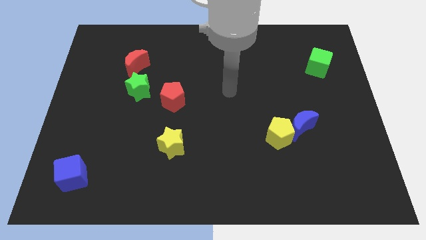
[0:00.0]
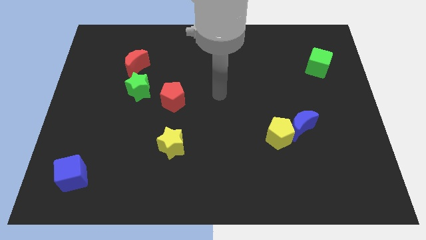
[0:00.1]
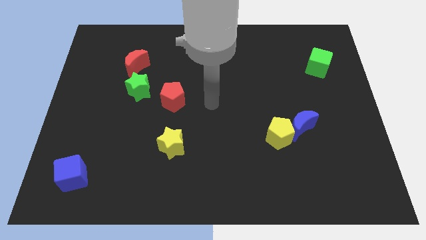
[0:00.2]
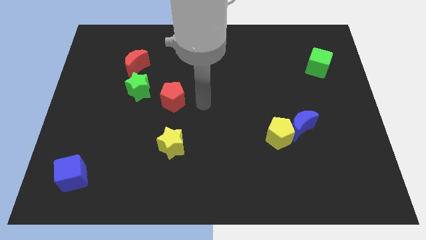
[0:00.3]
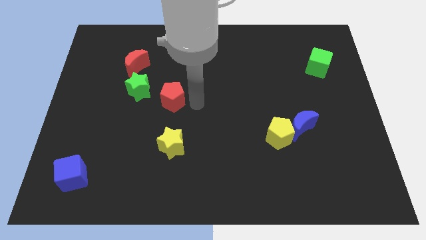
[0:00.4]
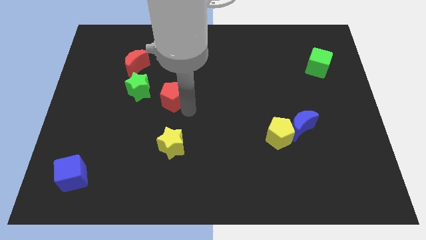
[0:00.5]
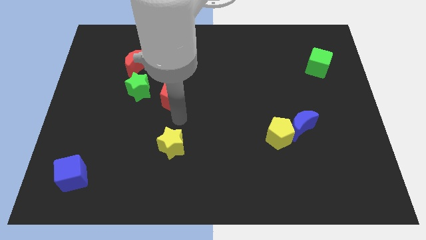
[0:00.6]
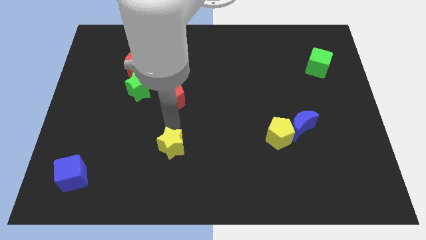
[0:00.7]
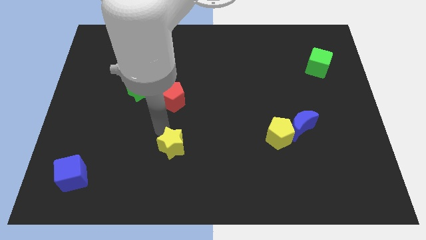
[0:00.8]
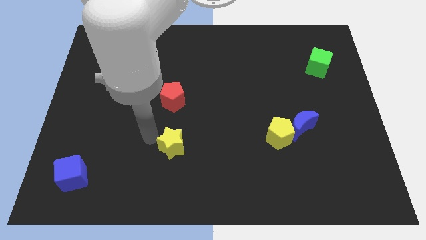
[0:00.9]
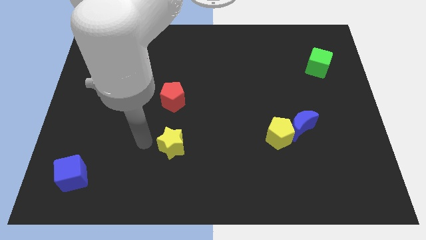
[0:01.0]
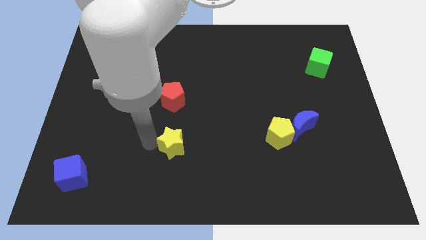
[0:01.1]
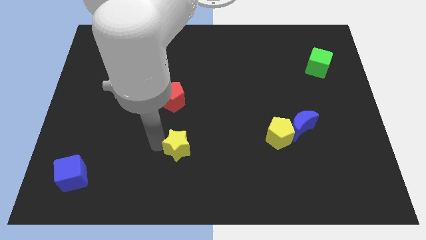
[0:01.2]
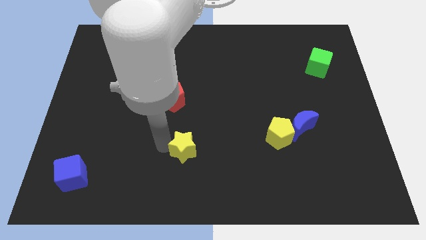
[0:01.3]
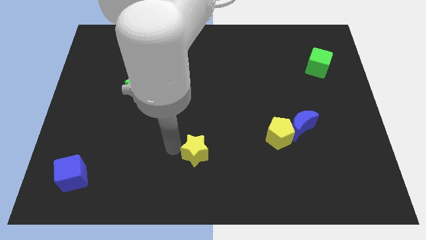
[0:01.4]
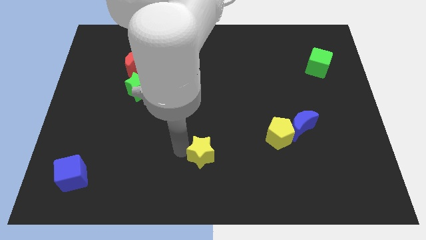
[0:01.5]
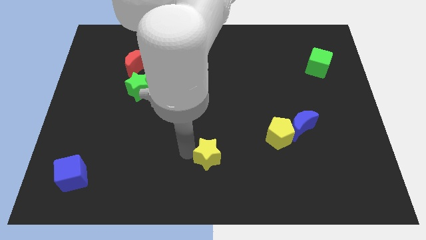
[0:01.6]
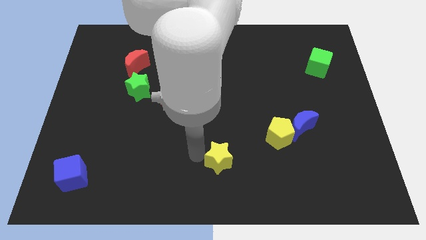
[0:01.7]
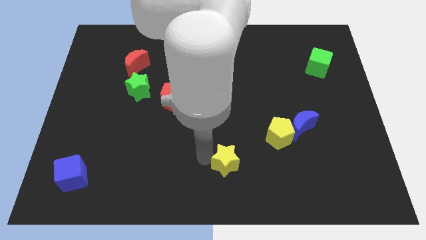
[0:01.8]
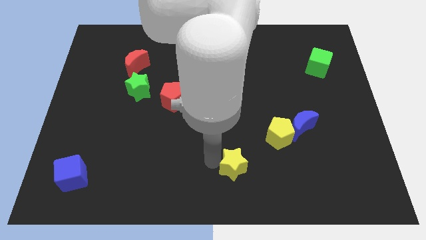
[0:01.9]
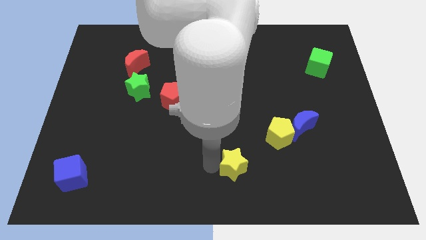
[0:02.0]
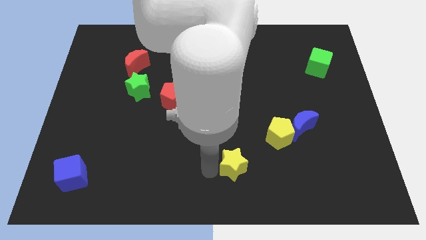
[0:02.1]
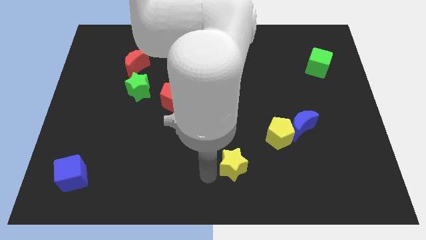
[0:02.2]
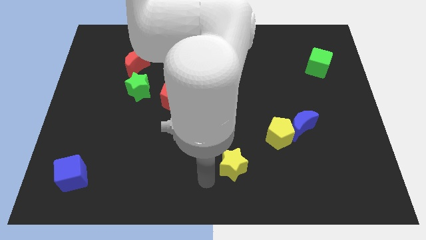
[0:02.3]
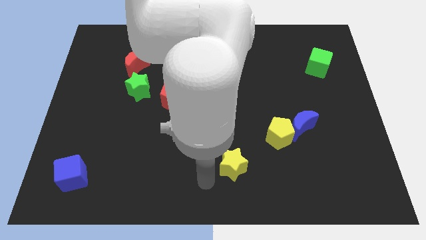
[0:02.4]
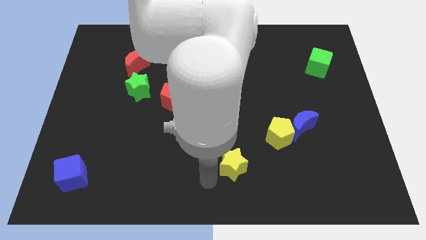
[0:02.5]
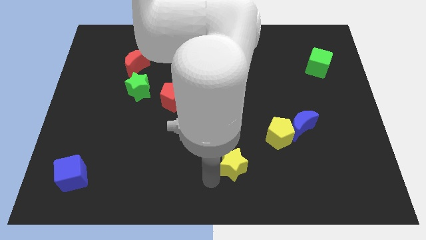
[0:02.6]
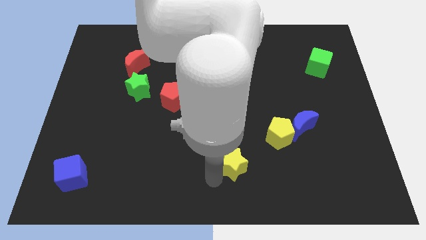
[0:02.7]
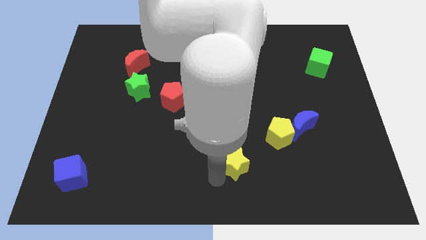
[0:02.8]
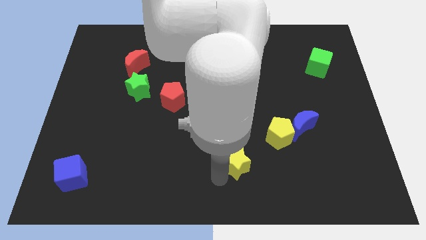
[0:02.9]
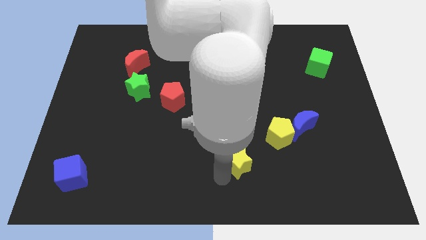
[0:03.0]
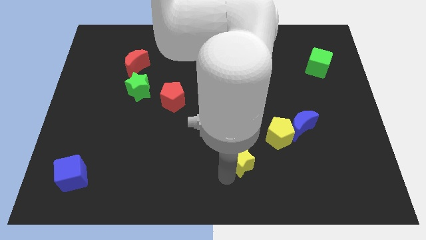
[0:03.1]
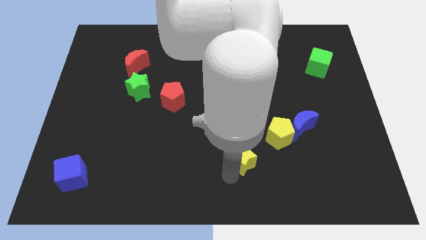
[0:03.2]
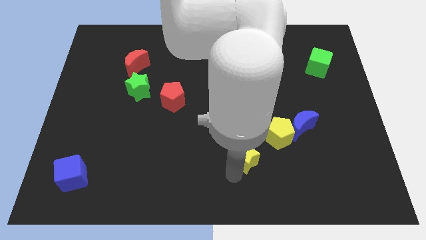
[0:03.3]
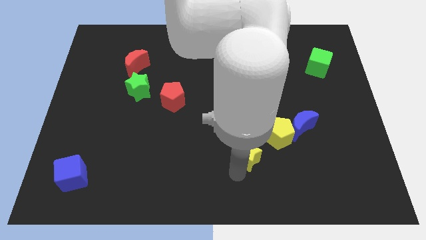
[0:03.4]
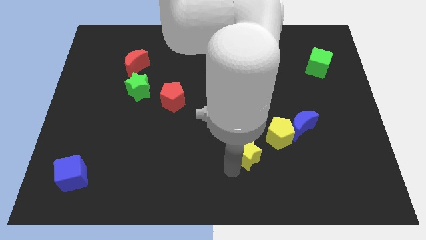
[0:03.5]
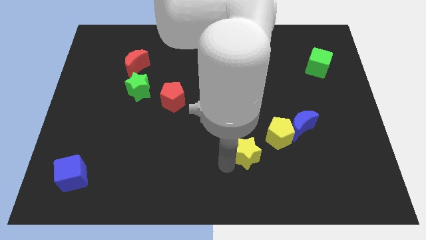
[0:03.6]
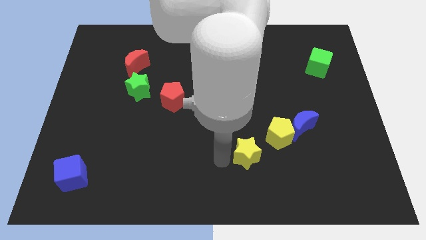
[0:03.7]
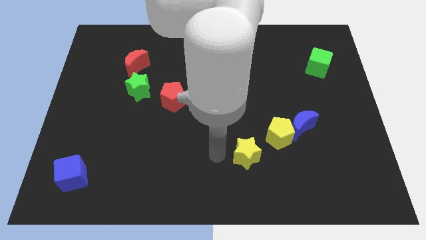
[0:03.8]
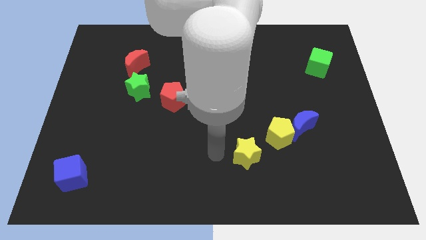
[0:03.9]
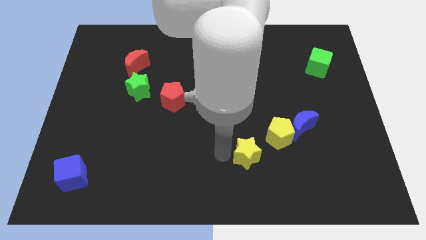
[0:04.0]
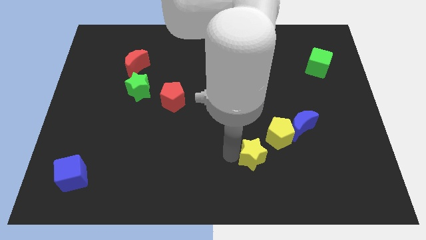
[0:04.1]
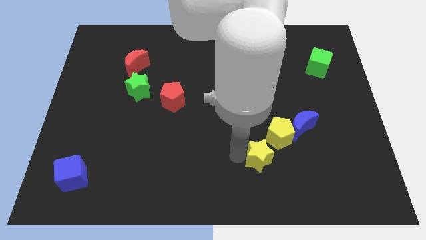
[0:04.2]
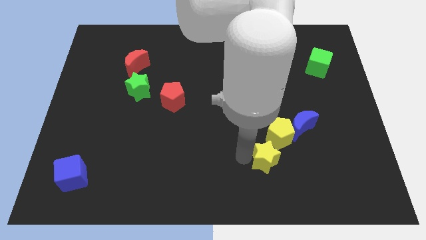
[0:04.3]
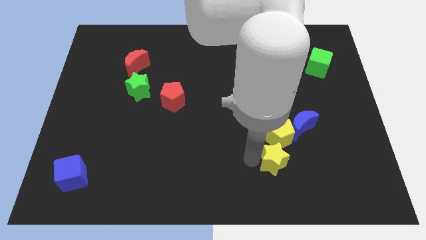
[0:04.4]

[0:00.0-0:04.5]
push the yellow star right

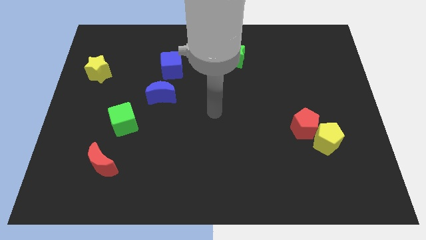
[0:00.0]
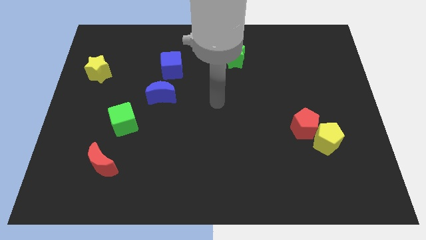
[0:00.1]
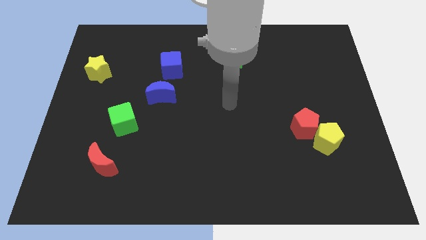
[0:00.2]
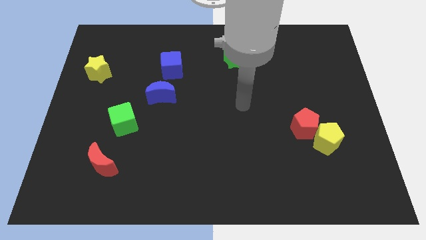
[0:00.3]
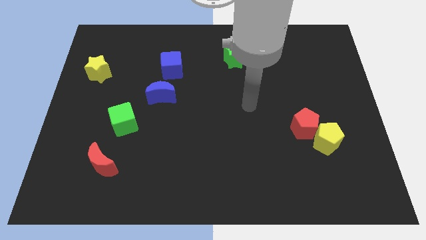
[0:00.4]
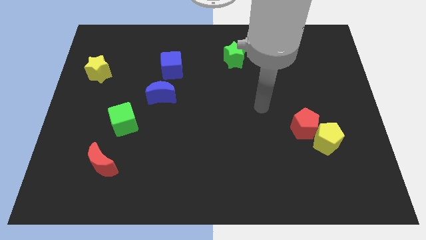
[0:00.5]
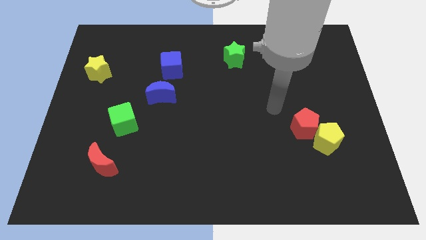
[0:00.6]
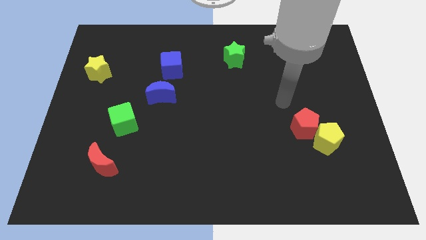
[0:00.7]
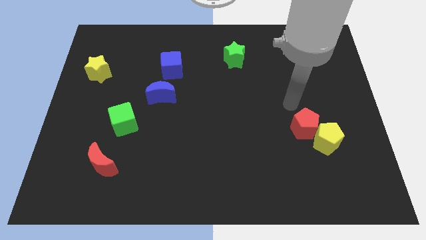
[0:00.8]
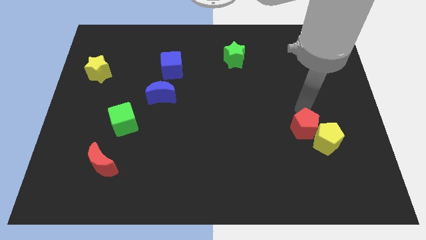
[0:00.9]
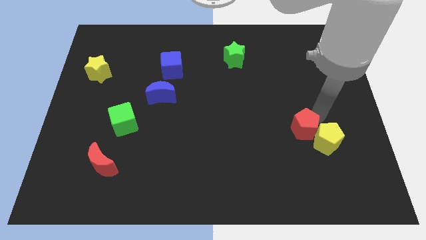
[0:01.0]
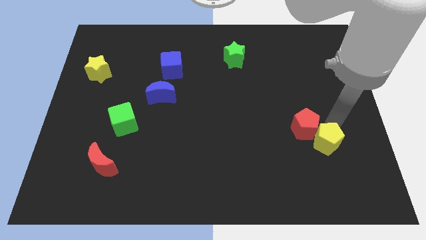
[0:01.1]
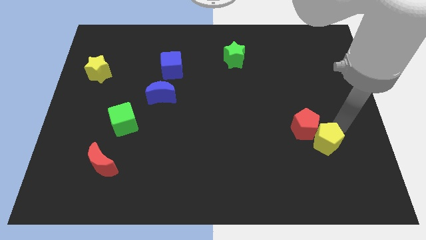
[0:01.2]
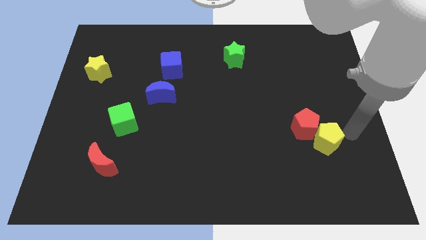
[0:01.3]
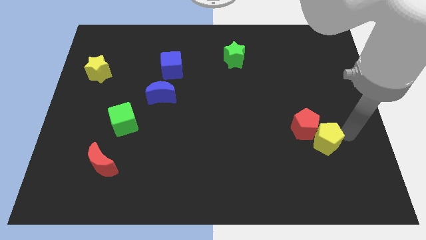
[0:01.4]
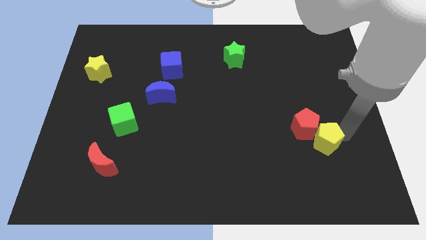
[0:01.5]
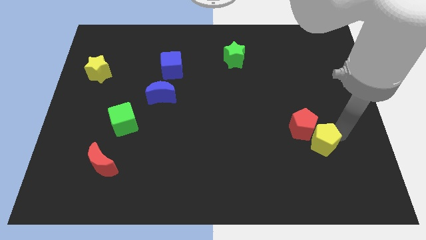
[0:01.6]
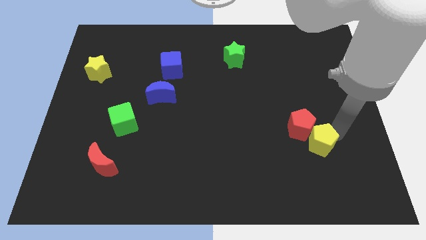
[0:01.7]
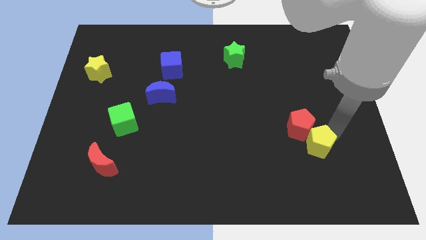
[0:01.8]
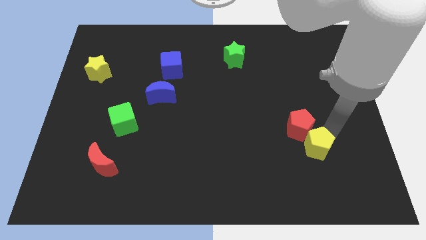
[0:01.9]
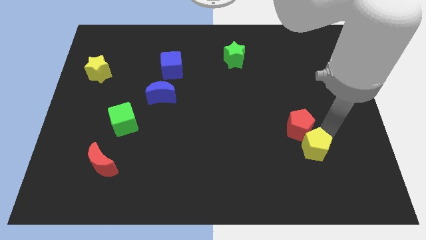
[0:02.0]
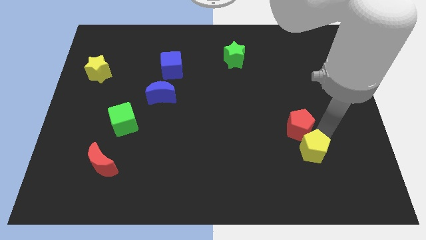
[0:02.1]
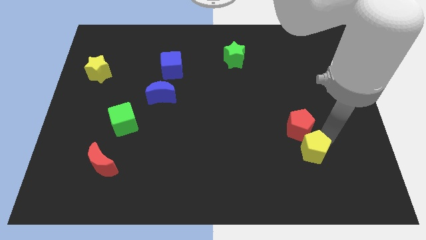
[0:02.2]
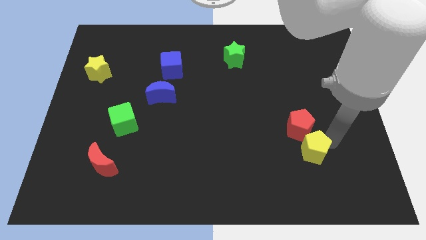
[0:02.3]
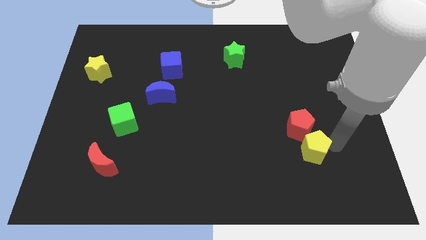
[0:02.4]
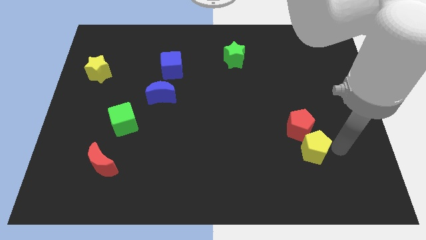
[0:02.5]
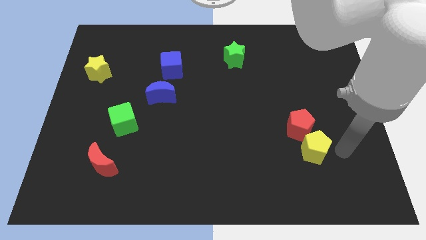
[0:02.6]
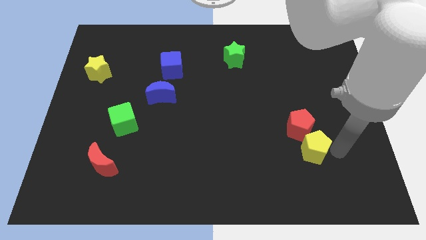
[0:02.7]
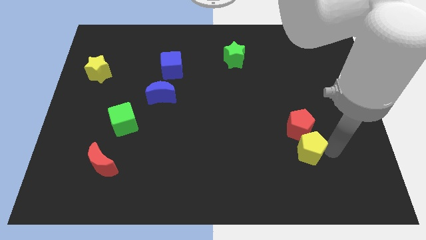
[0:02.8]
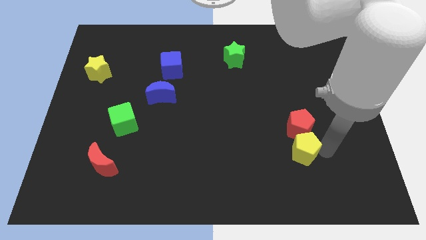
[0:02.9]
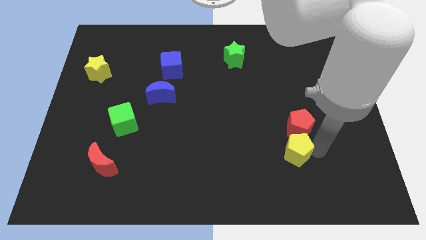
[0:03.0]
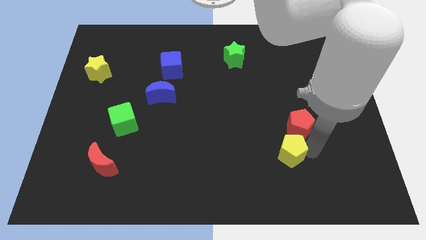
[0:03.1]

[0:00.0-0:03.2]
push the yellow pentagon a little left

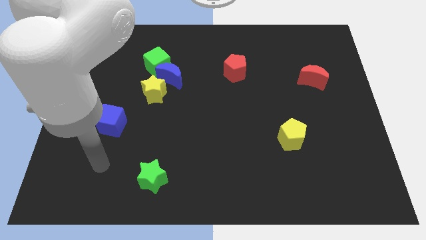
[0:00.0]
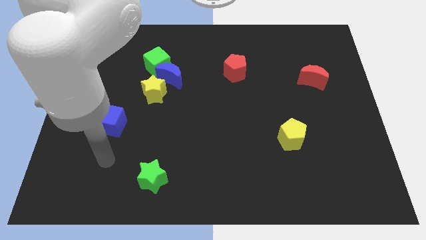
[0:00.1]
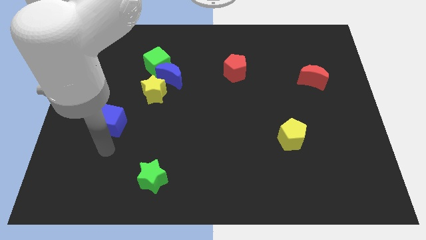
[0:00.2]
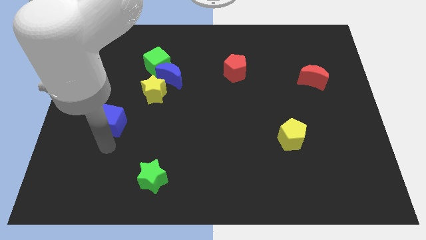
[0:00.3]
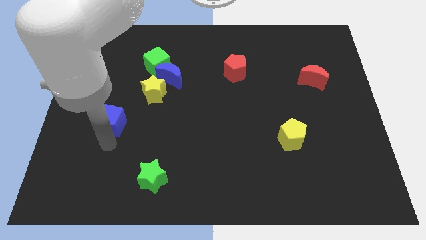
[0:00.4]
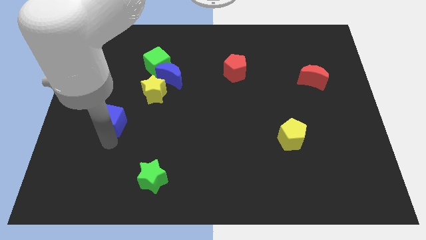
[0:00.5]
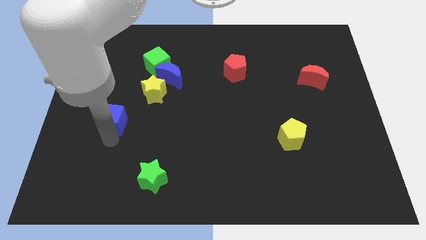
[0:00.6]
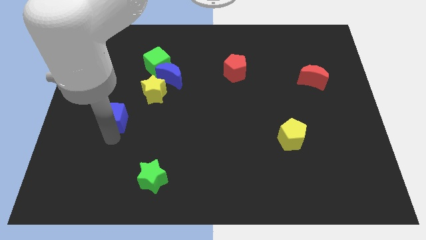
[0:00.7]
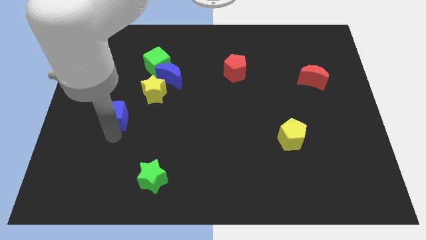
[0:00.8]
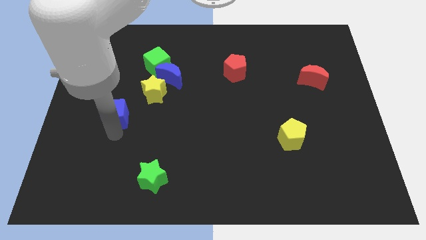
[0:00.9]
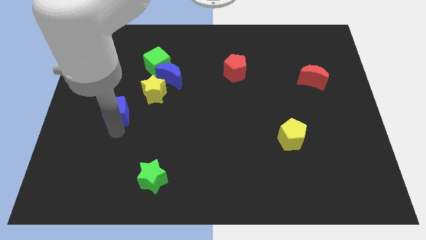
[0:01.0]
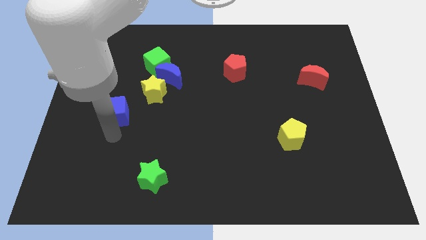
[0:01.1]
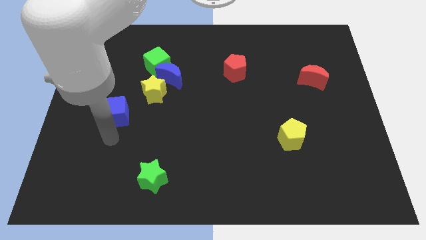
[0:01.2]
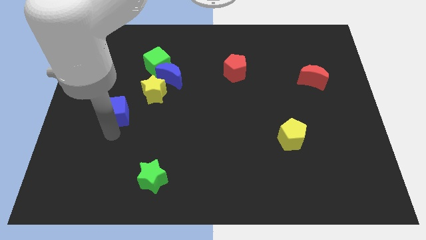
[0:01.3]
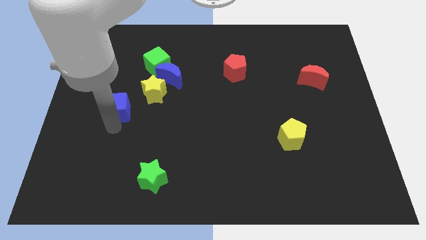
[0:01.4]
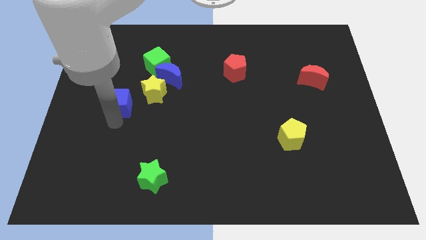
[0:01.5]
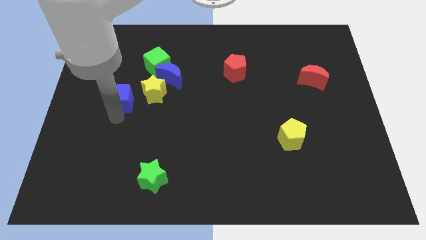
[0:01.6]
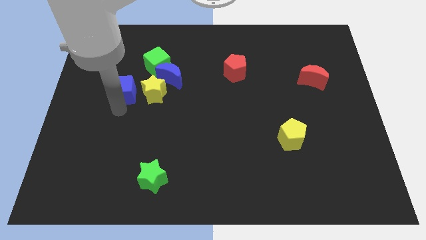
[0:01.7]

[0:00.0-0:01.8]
move the blue cube a little upwards
